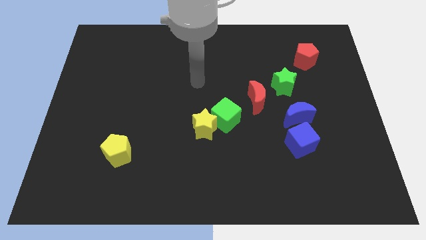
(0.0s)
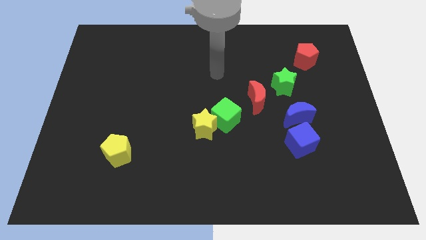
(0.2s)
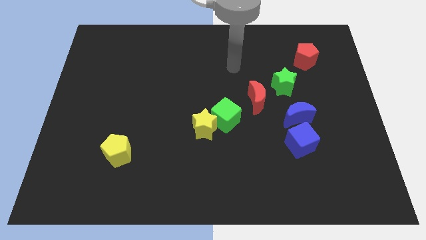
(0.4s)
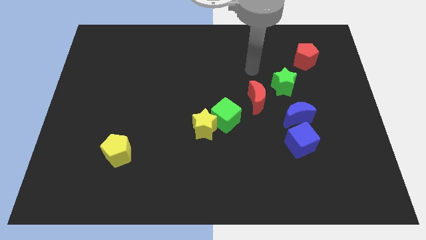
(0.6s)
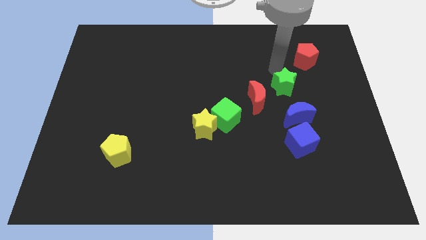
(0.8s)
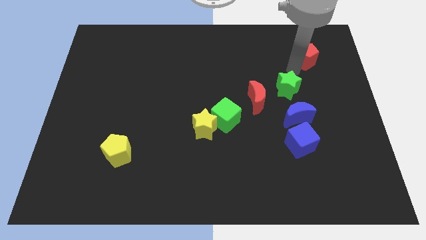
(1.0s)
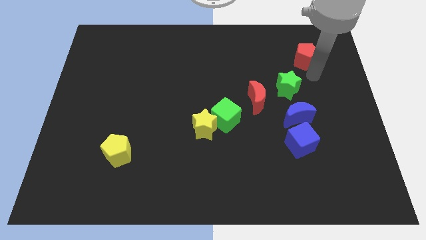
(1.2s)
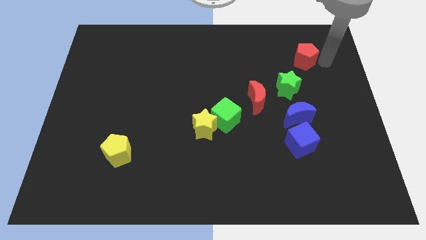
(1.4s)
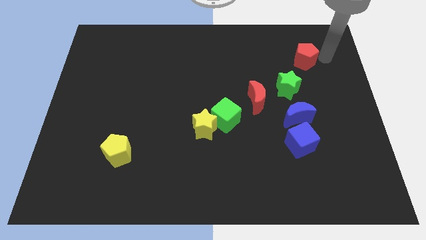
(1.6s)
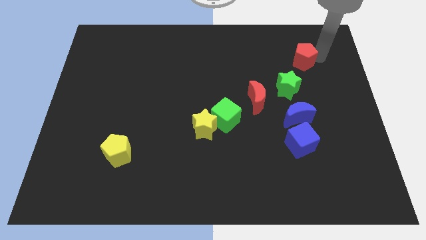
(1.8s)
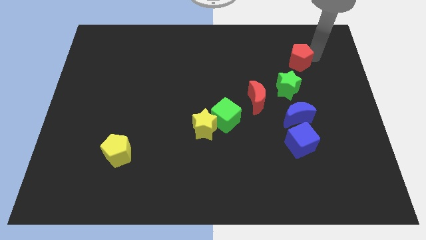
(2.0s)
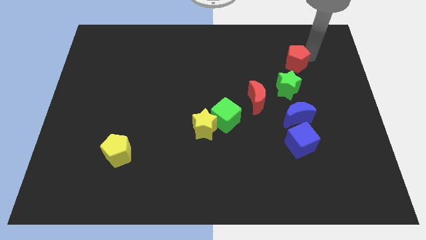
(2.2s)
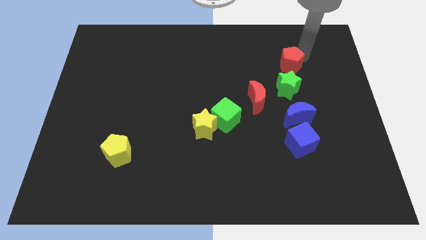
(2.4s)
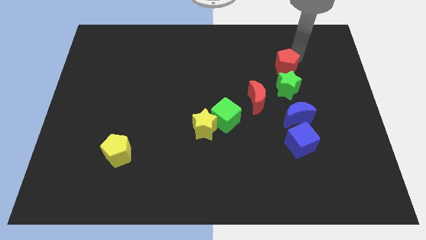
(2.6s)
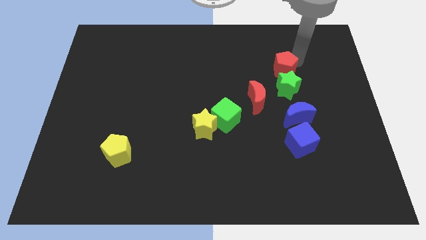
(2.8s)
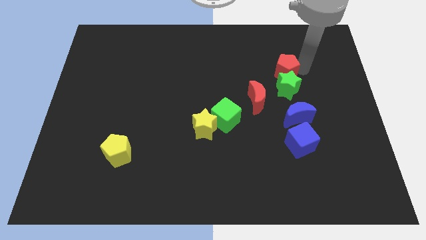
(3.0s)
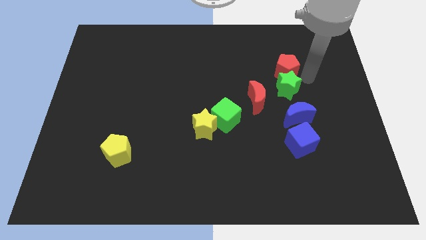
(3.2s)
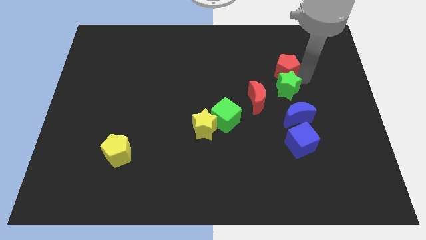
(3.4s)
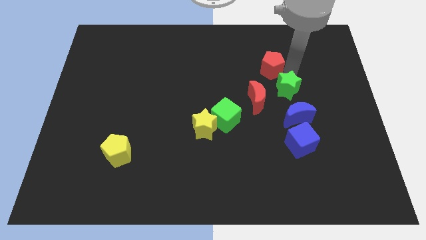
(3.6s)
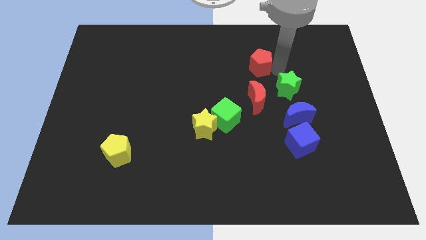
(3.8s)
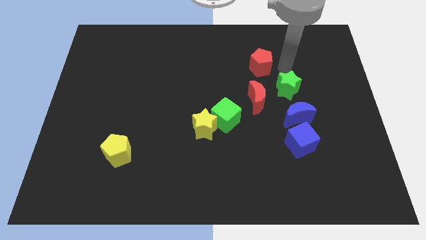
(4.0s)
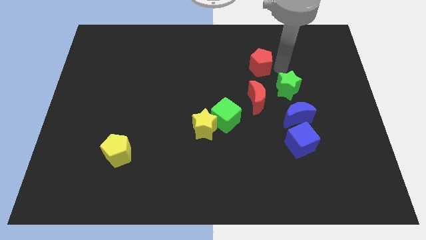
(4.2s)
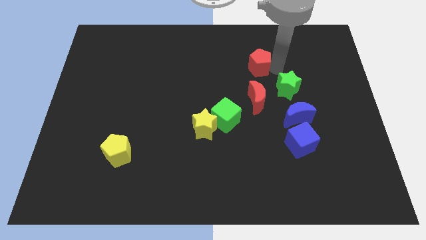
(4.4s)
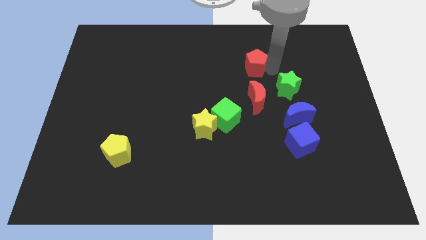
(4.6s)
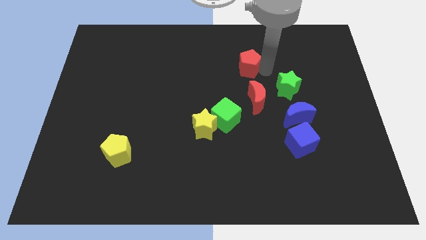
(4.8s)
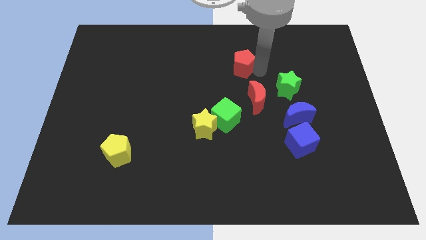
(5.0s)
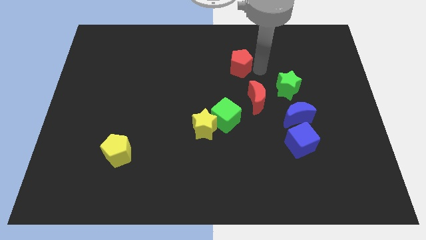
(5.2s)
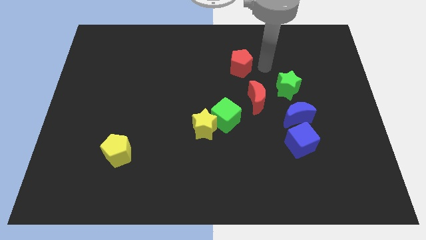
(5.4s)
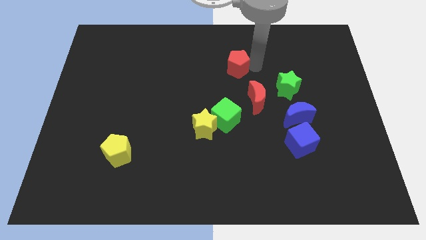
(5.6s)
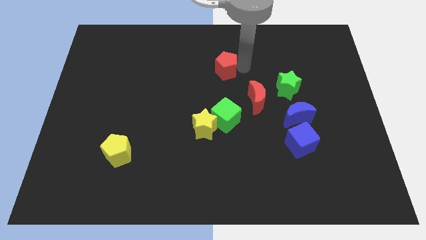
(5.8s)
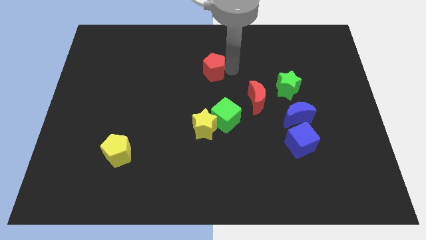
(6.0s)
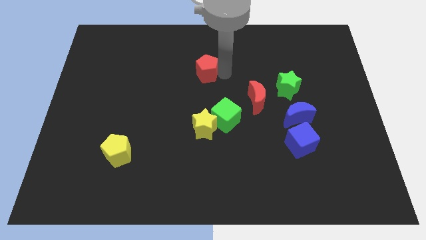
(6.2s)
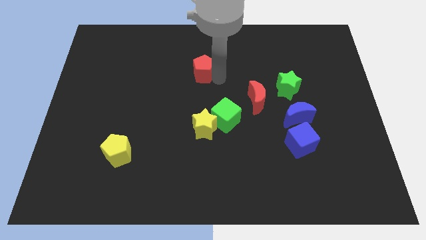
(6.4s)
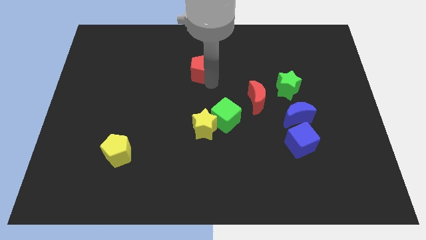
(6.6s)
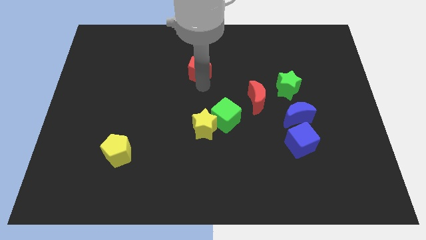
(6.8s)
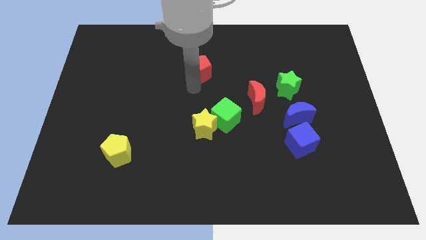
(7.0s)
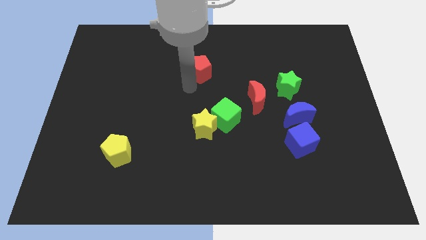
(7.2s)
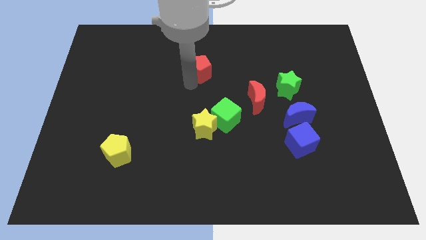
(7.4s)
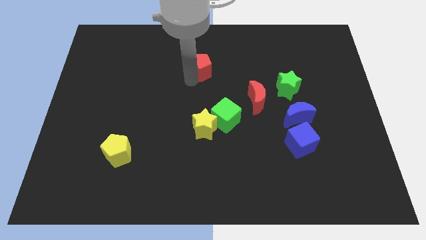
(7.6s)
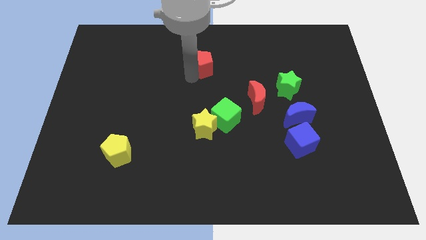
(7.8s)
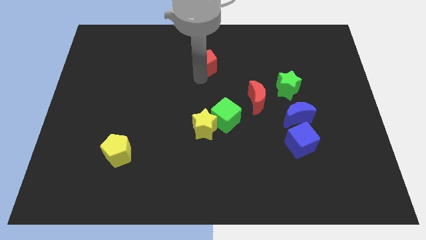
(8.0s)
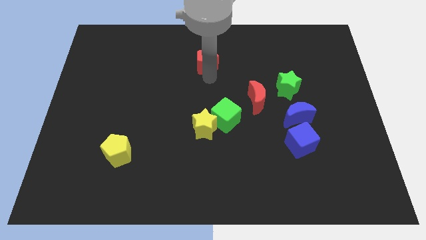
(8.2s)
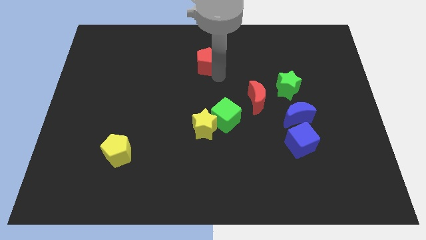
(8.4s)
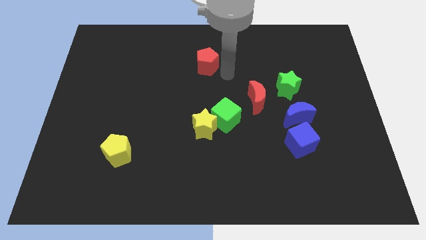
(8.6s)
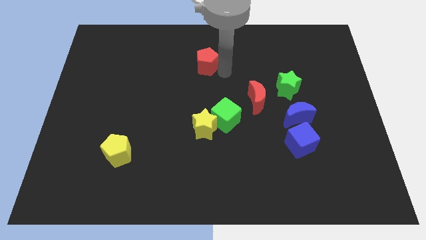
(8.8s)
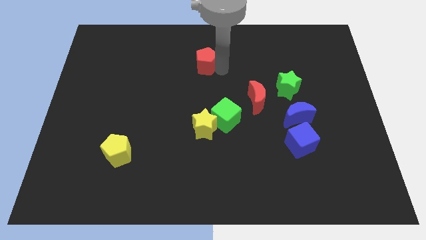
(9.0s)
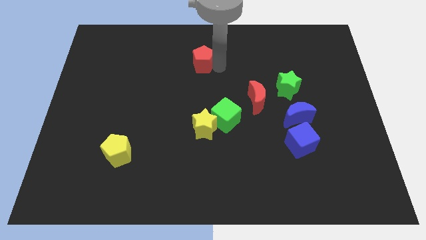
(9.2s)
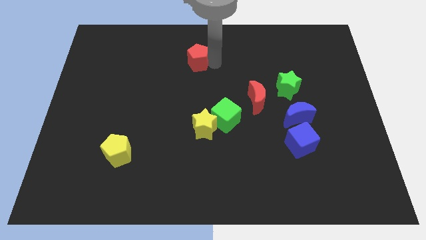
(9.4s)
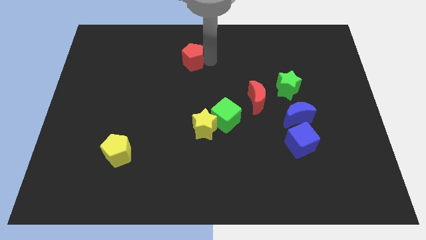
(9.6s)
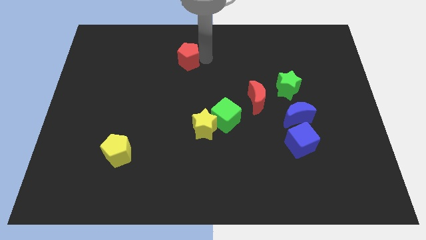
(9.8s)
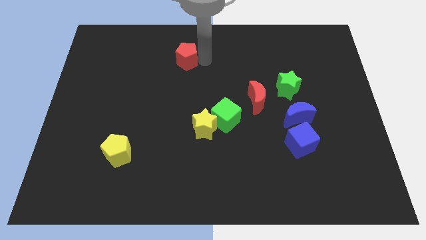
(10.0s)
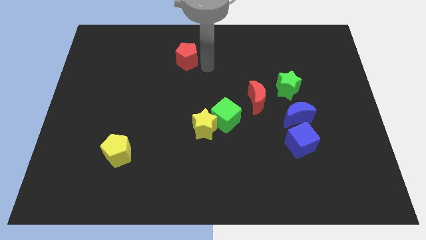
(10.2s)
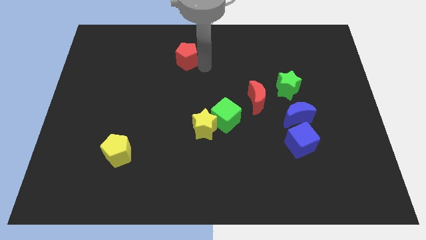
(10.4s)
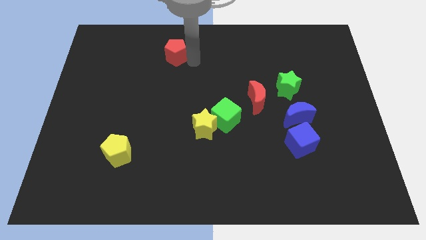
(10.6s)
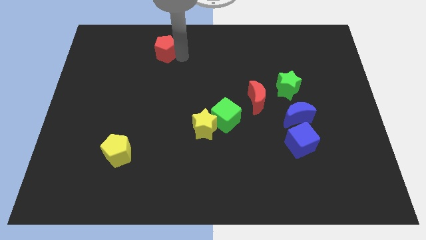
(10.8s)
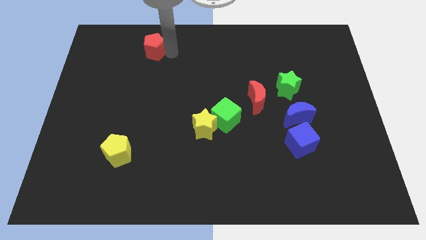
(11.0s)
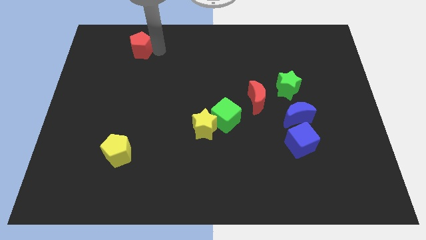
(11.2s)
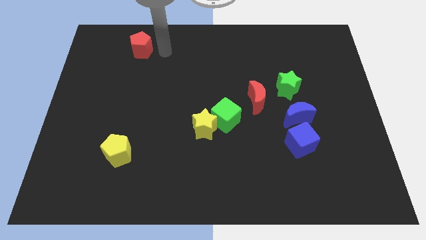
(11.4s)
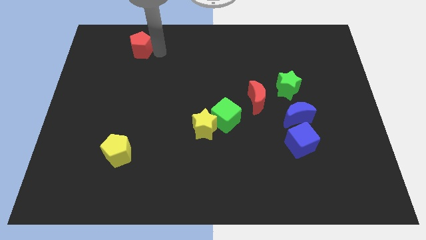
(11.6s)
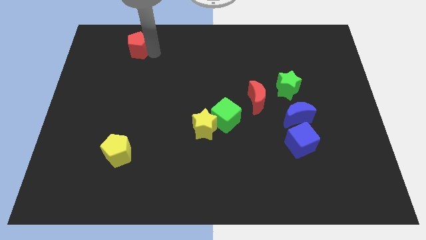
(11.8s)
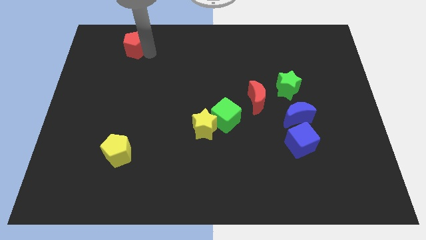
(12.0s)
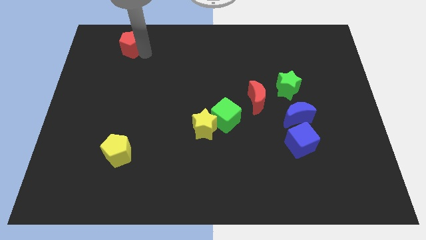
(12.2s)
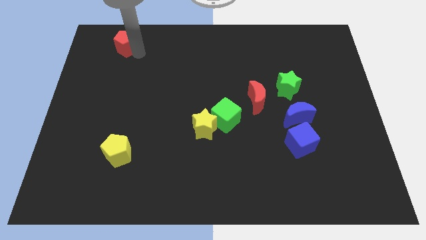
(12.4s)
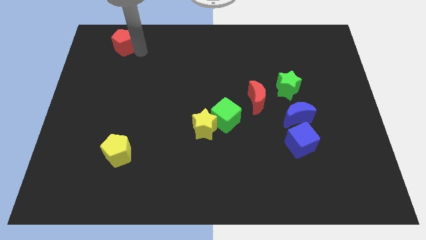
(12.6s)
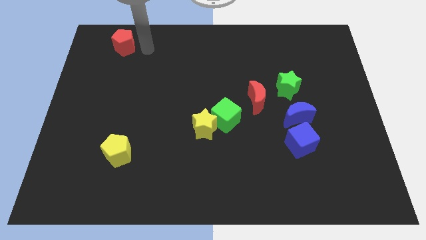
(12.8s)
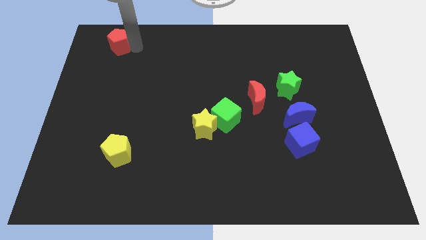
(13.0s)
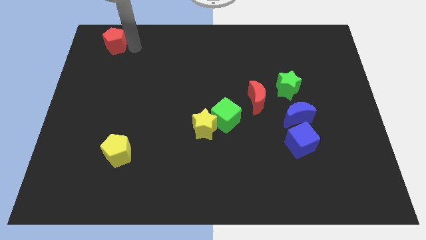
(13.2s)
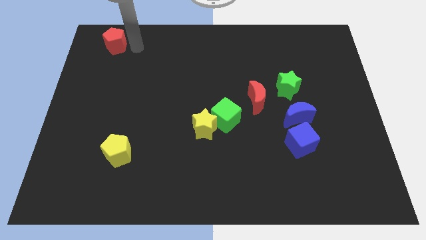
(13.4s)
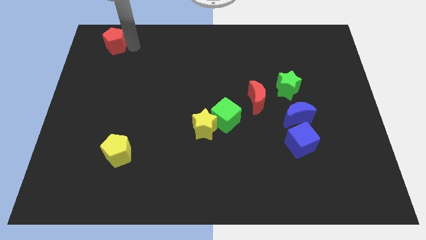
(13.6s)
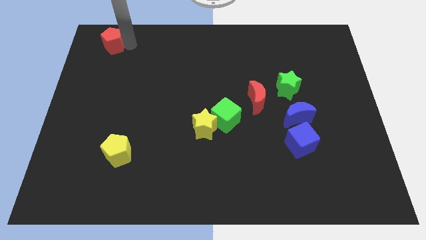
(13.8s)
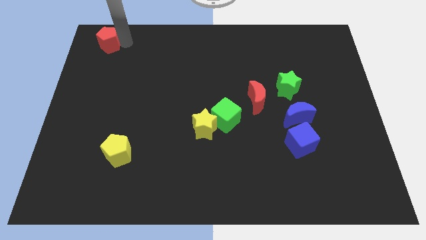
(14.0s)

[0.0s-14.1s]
slide the red pentagon to the top left of the board

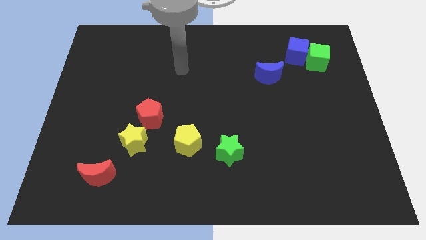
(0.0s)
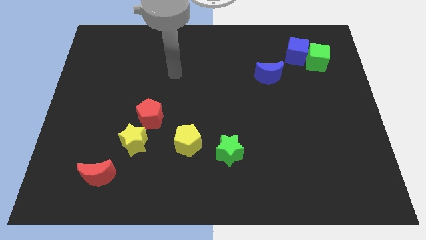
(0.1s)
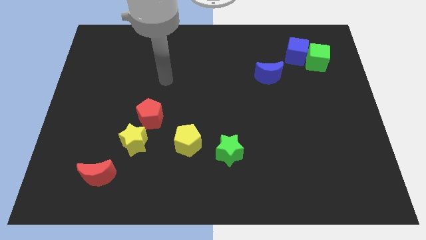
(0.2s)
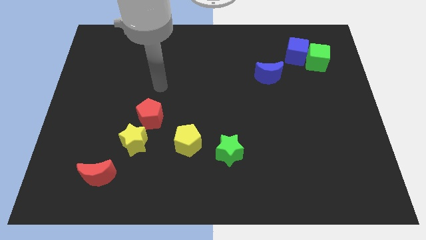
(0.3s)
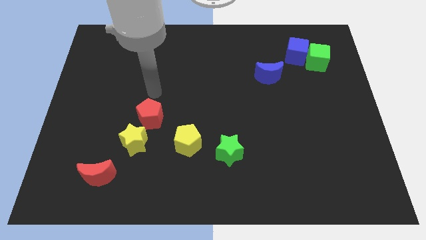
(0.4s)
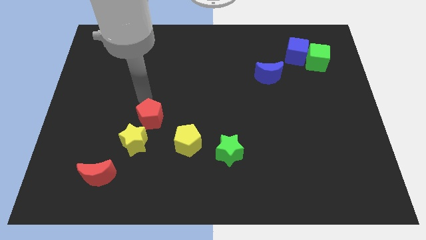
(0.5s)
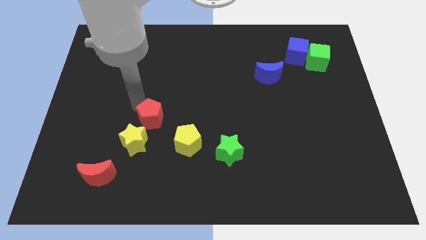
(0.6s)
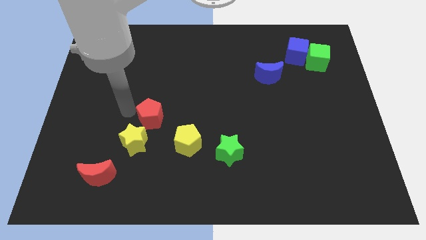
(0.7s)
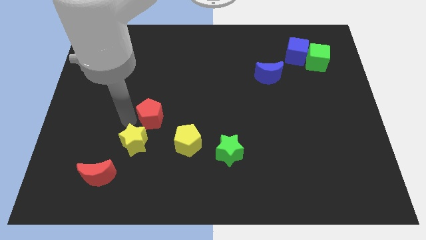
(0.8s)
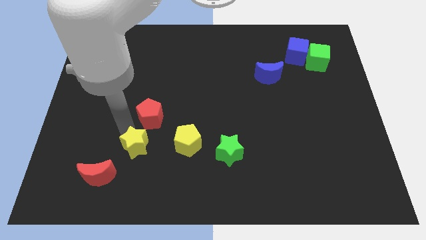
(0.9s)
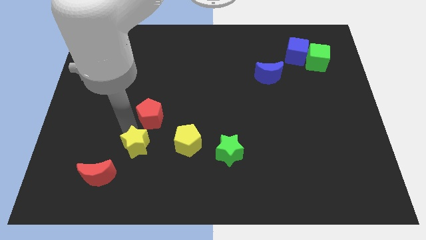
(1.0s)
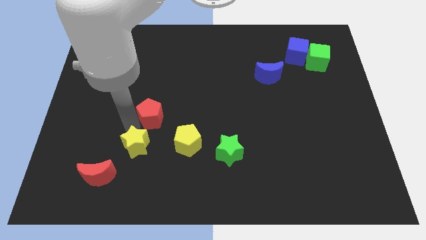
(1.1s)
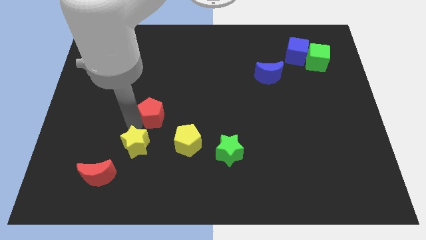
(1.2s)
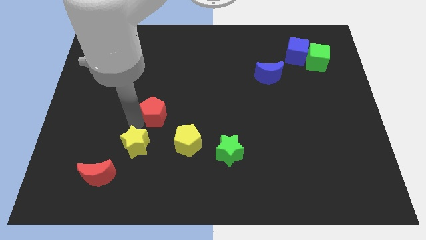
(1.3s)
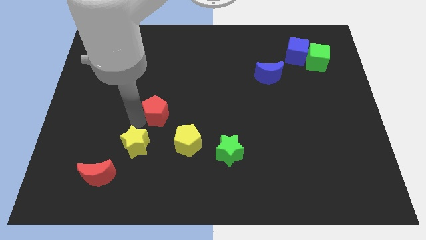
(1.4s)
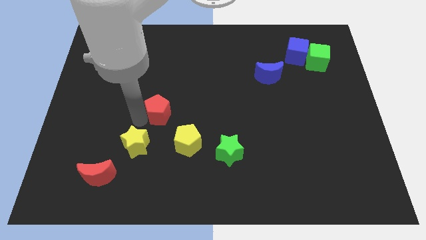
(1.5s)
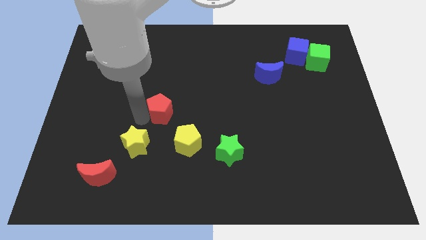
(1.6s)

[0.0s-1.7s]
slide the red pentagon to the middle of the board
